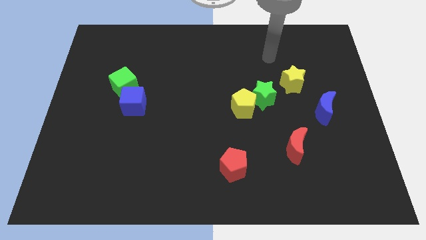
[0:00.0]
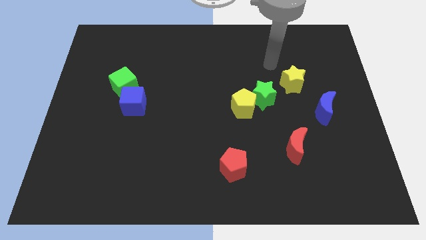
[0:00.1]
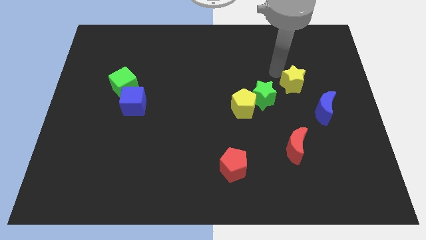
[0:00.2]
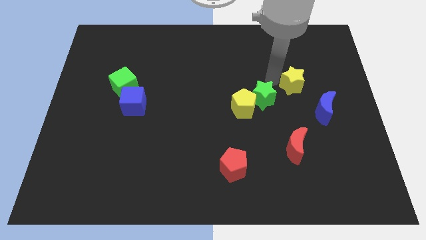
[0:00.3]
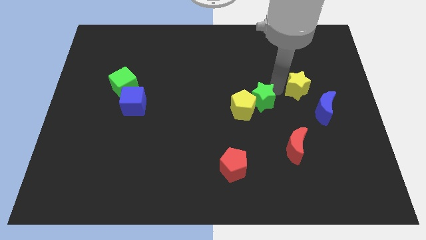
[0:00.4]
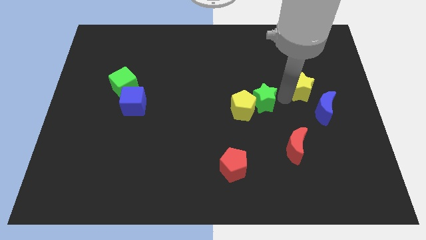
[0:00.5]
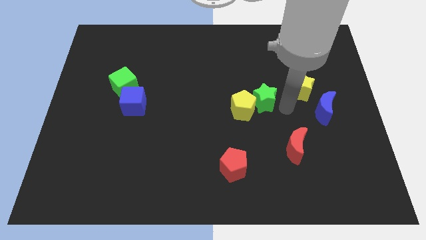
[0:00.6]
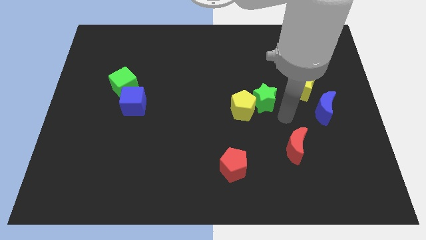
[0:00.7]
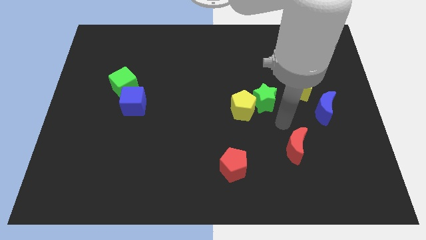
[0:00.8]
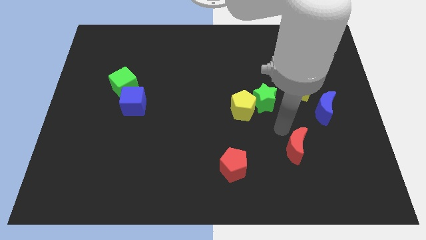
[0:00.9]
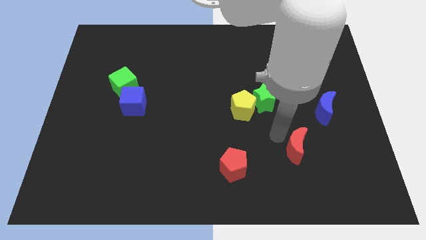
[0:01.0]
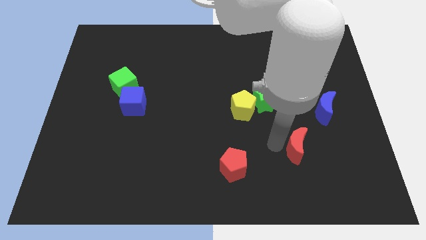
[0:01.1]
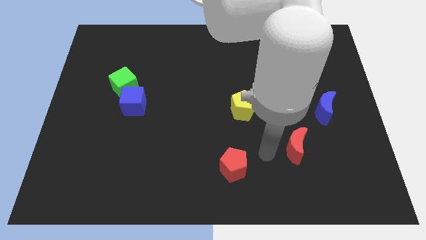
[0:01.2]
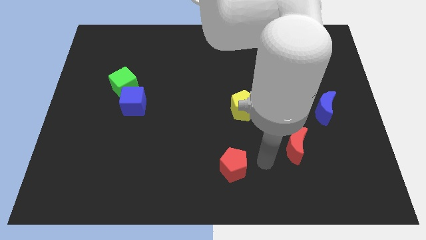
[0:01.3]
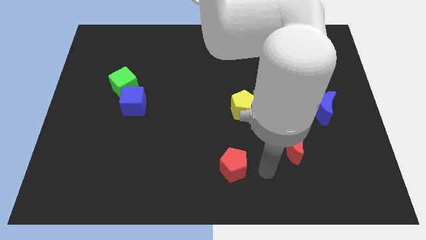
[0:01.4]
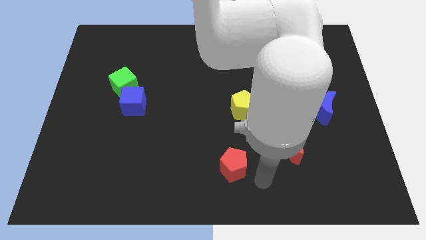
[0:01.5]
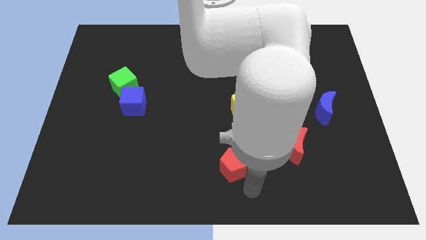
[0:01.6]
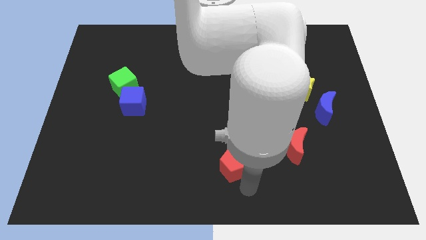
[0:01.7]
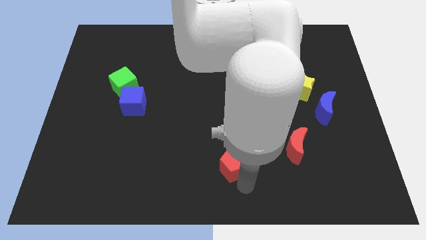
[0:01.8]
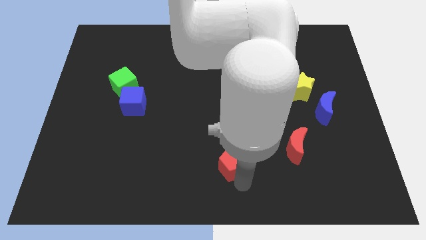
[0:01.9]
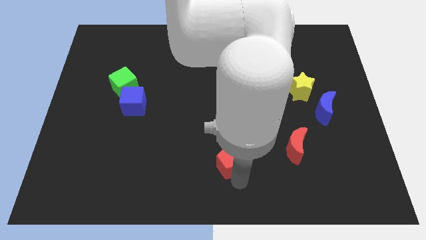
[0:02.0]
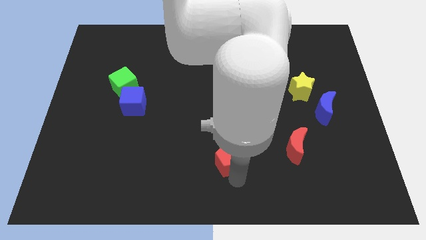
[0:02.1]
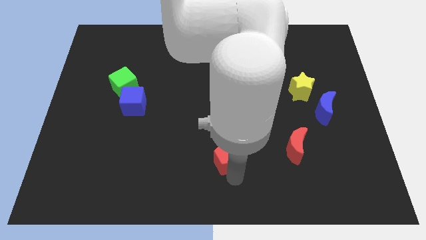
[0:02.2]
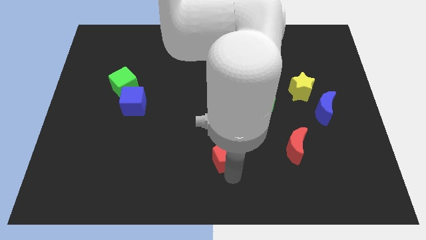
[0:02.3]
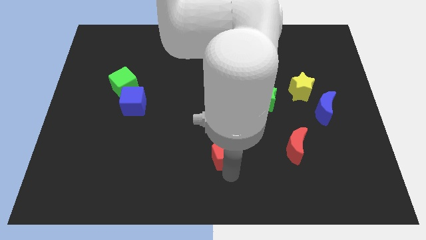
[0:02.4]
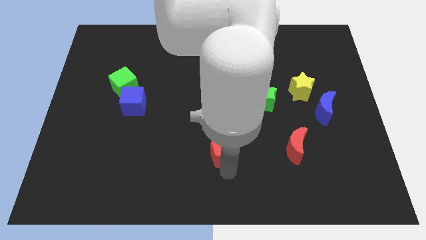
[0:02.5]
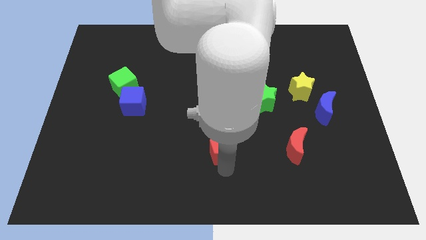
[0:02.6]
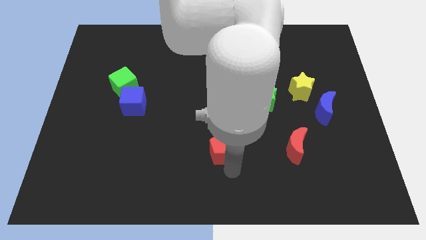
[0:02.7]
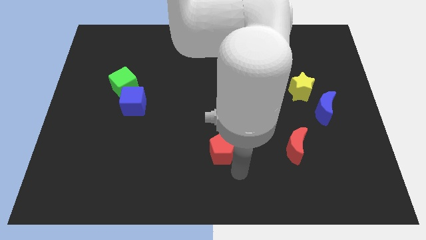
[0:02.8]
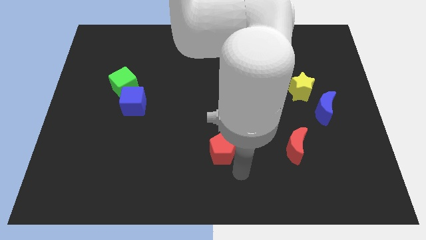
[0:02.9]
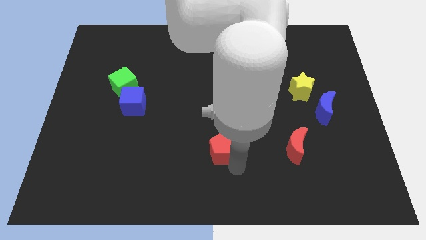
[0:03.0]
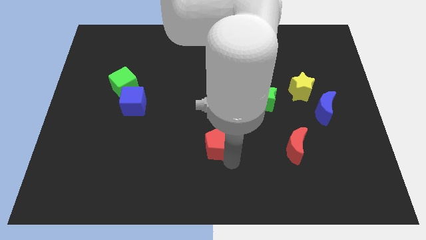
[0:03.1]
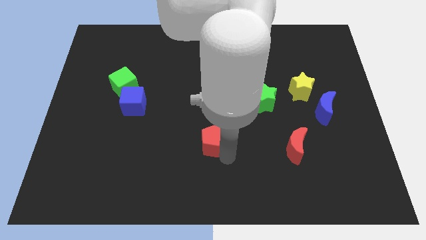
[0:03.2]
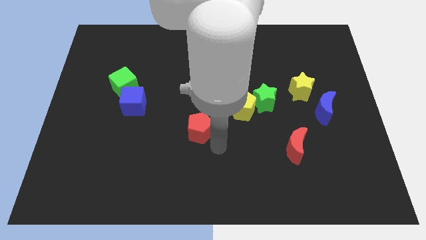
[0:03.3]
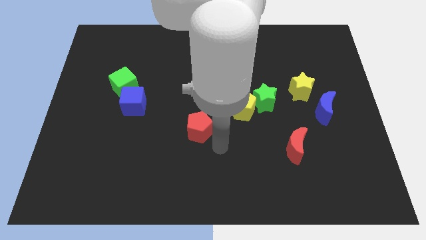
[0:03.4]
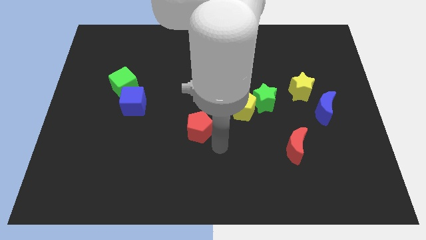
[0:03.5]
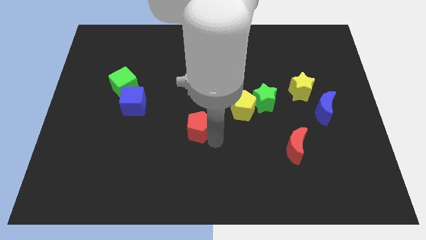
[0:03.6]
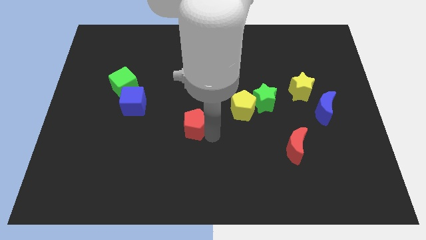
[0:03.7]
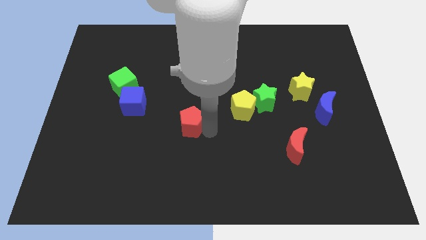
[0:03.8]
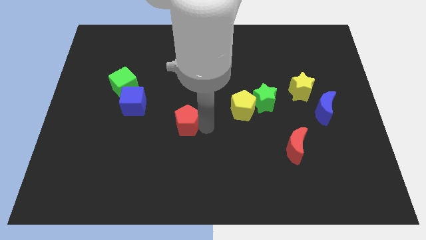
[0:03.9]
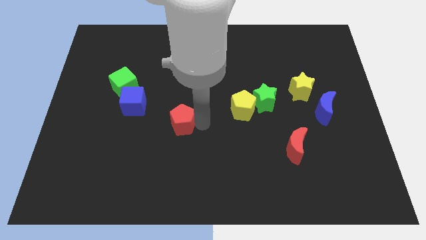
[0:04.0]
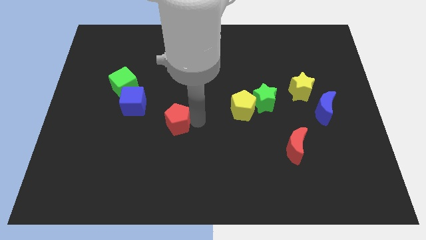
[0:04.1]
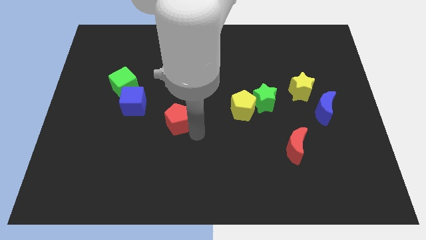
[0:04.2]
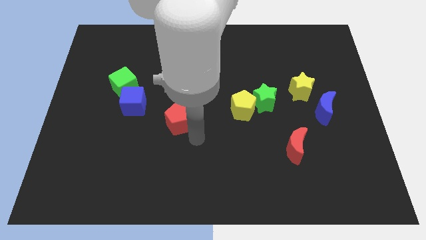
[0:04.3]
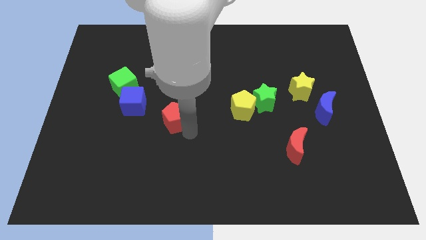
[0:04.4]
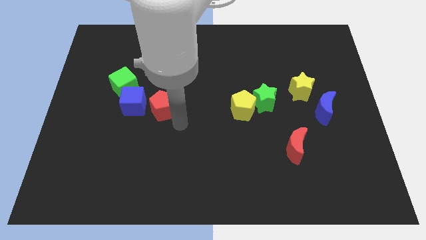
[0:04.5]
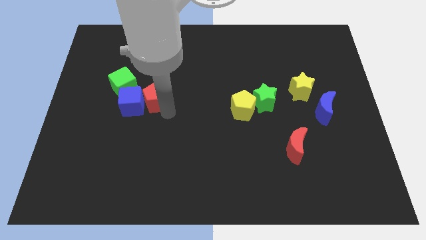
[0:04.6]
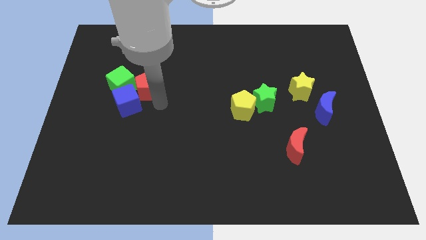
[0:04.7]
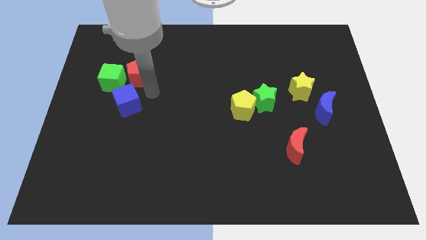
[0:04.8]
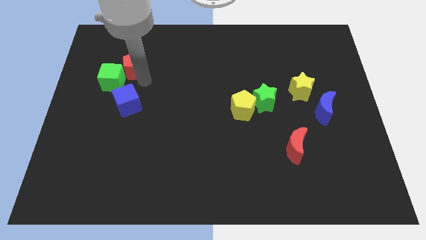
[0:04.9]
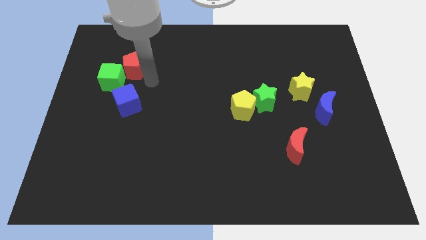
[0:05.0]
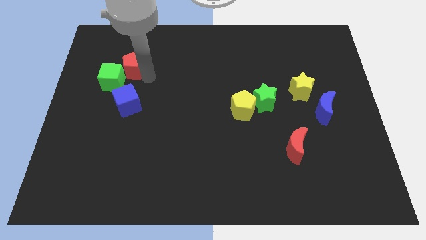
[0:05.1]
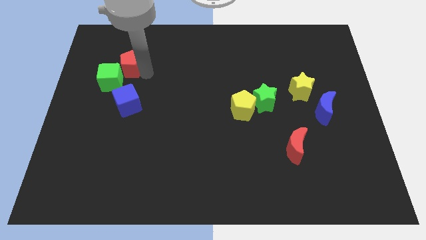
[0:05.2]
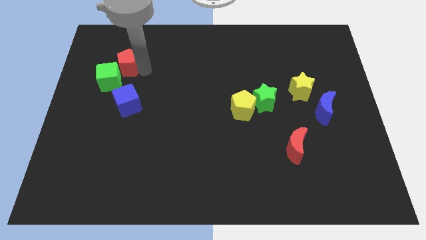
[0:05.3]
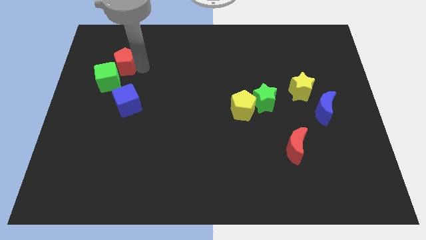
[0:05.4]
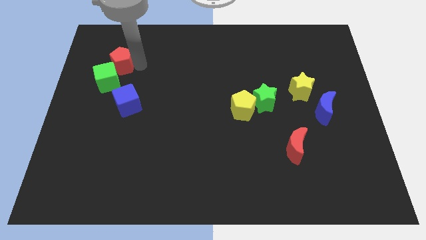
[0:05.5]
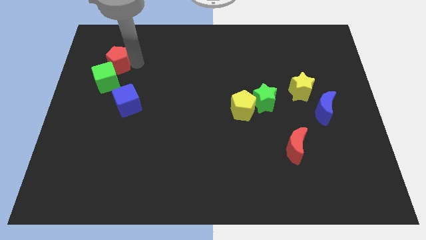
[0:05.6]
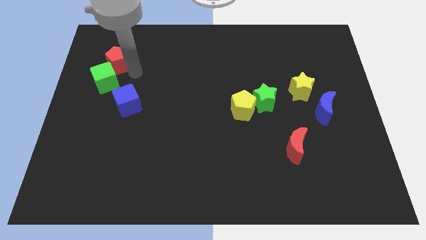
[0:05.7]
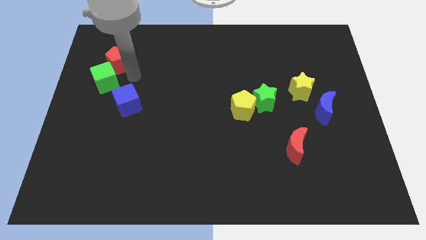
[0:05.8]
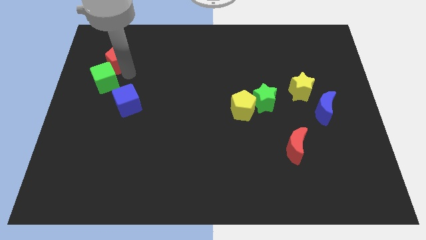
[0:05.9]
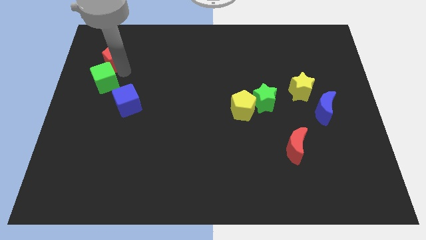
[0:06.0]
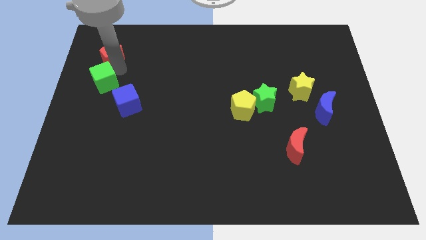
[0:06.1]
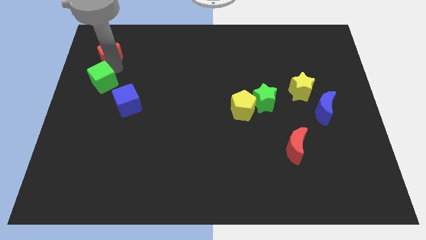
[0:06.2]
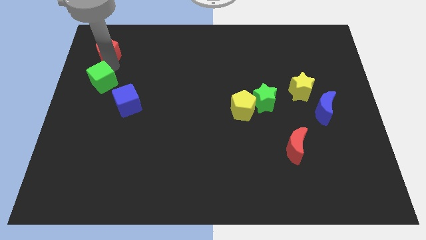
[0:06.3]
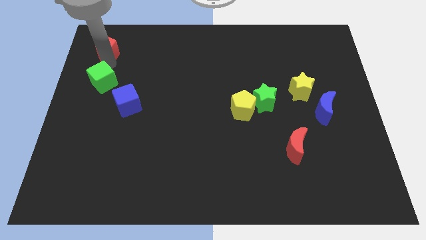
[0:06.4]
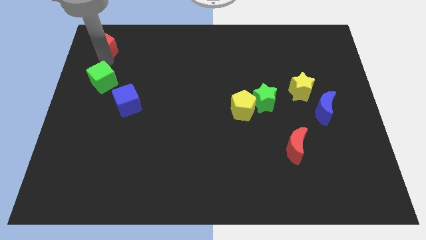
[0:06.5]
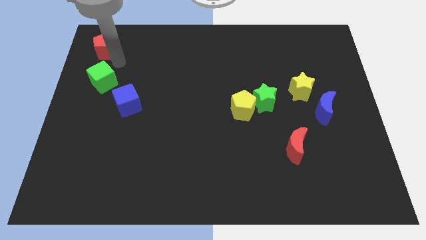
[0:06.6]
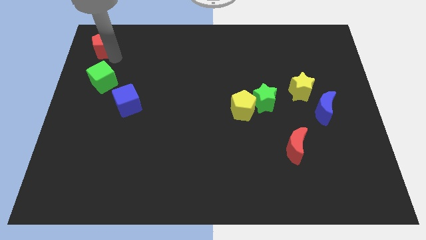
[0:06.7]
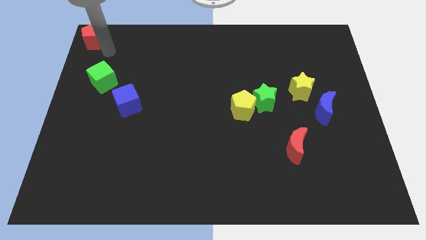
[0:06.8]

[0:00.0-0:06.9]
push the red pentagon to the top left corner
